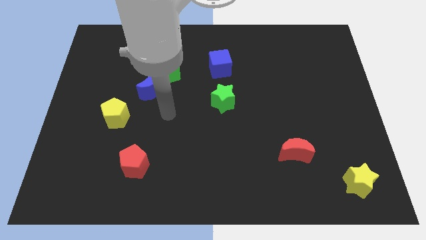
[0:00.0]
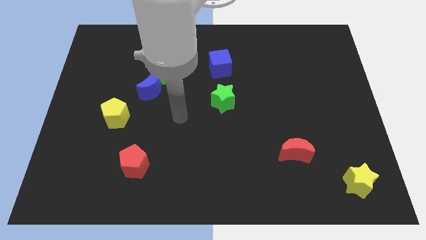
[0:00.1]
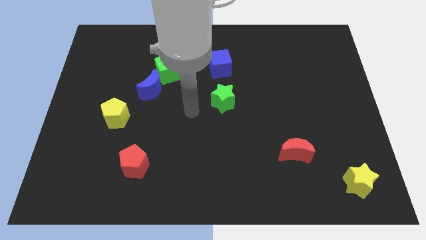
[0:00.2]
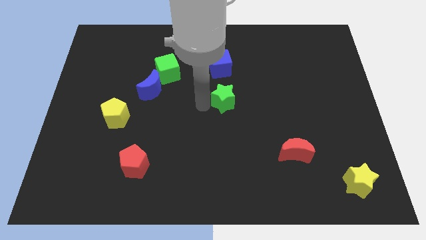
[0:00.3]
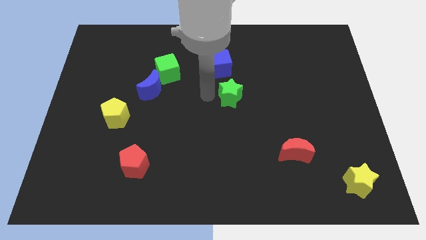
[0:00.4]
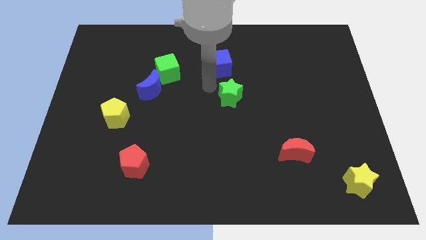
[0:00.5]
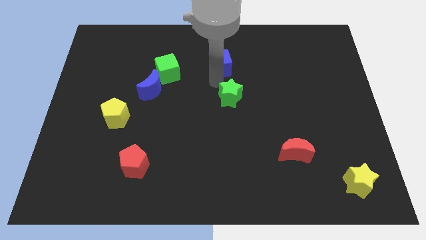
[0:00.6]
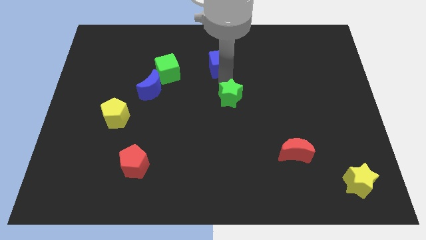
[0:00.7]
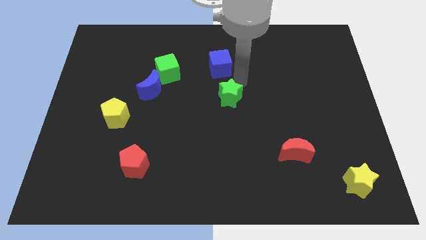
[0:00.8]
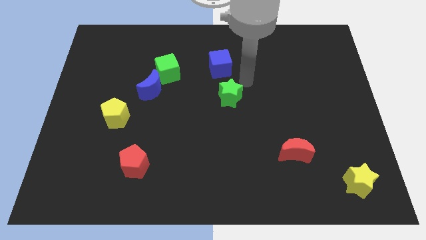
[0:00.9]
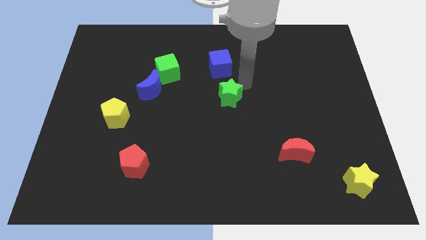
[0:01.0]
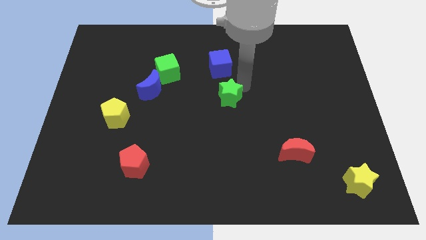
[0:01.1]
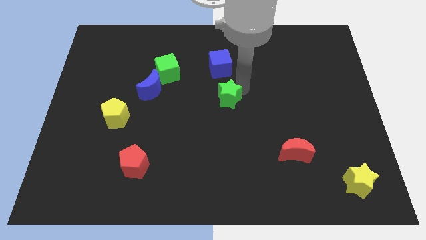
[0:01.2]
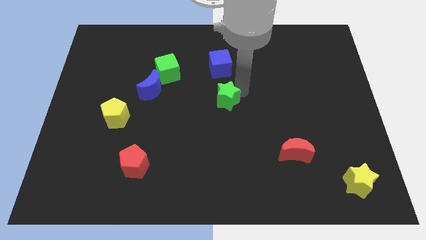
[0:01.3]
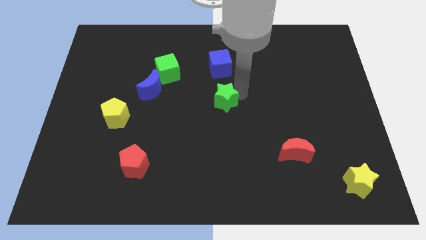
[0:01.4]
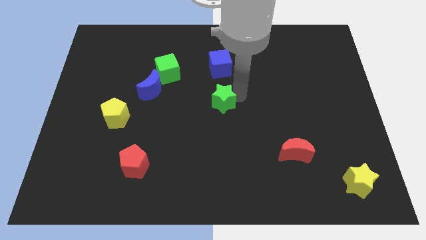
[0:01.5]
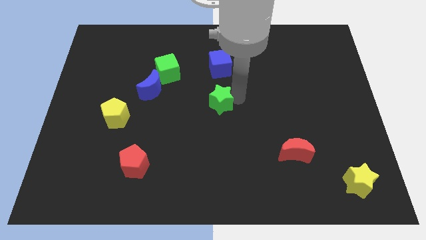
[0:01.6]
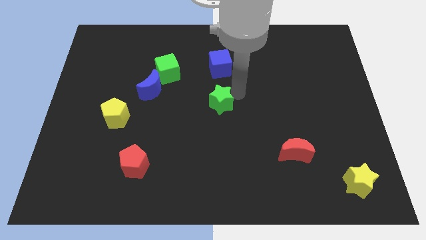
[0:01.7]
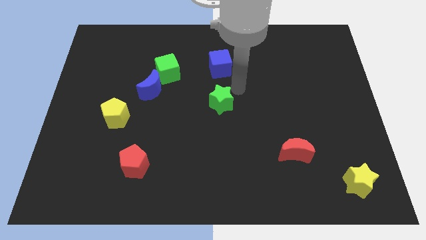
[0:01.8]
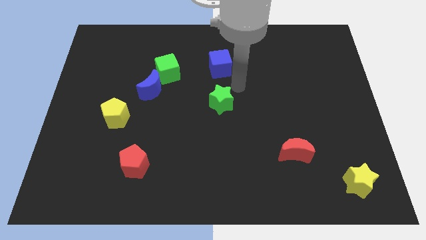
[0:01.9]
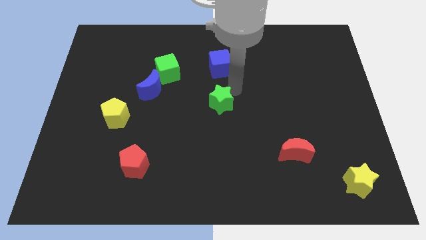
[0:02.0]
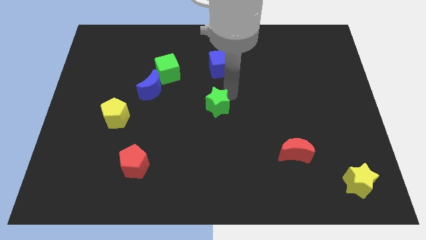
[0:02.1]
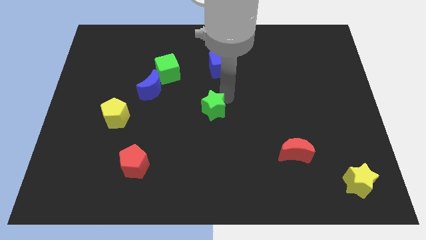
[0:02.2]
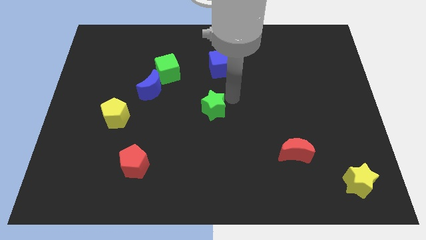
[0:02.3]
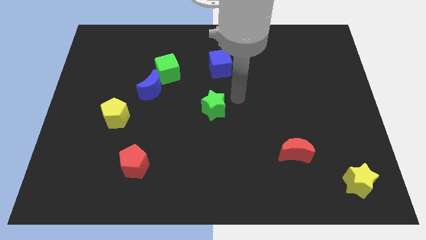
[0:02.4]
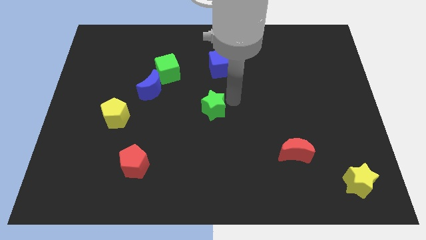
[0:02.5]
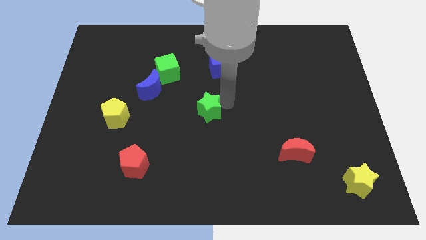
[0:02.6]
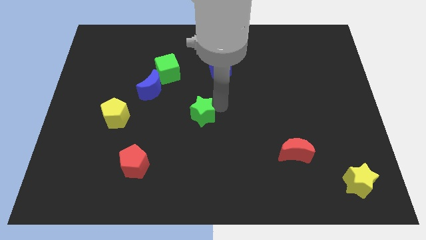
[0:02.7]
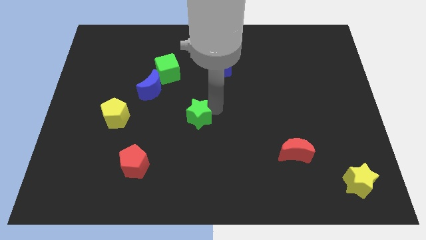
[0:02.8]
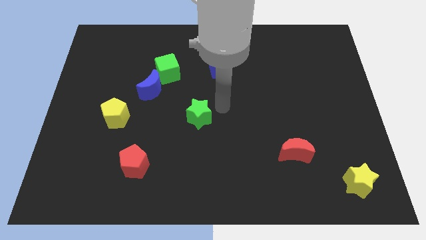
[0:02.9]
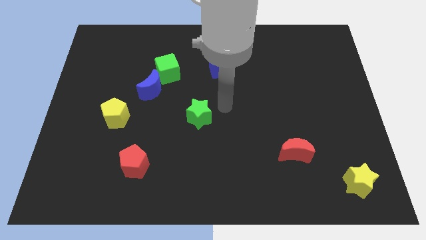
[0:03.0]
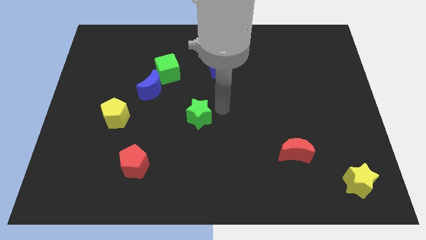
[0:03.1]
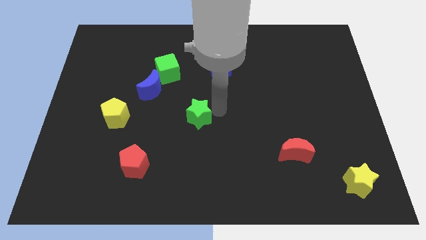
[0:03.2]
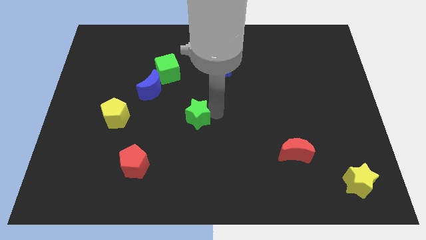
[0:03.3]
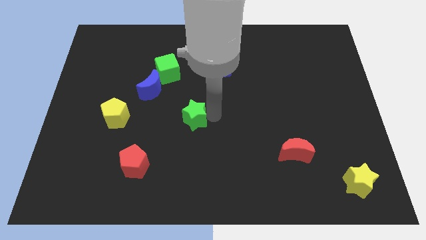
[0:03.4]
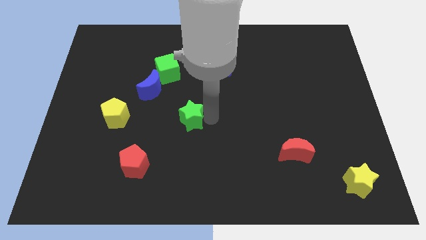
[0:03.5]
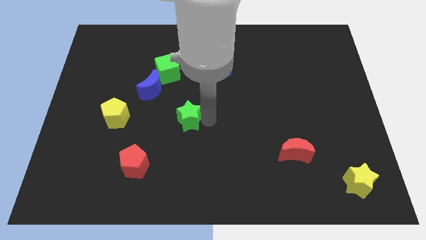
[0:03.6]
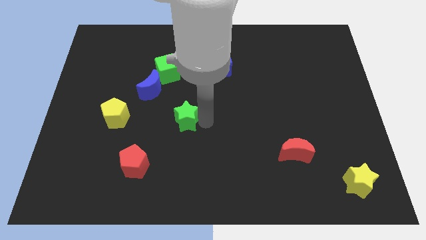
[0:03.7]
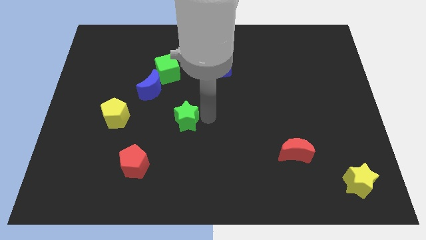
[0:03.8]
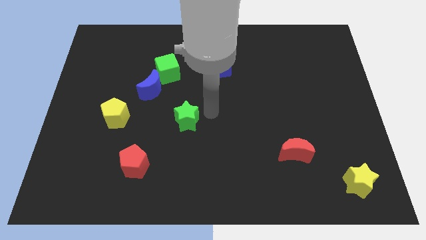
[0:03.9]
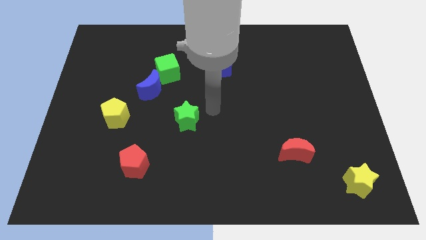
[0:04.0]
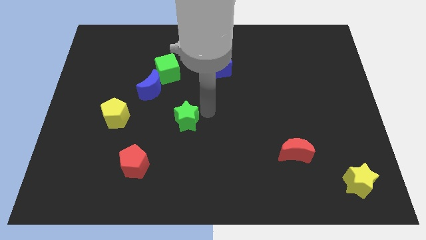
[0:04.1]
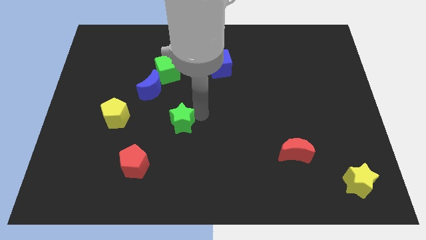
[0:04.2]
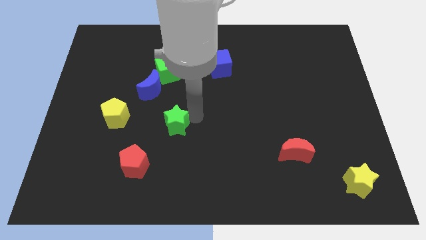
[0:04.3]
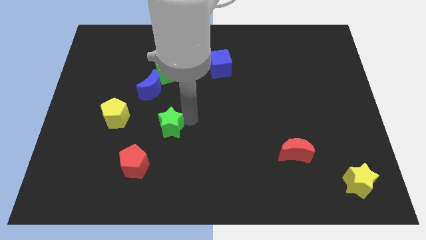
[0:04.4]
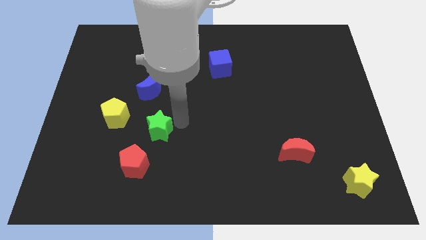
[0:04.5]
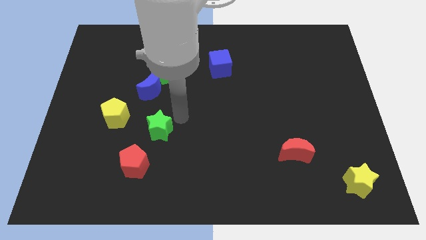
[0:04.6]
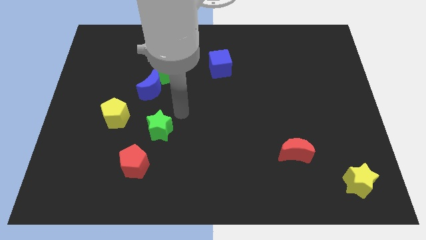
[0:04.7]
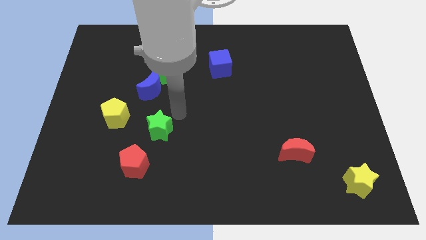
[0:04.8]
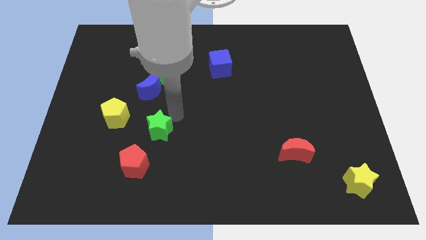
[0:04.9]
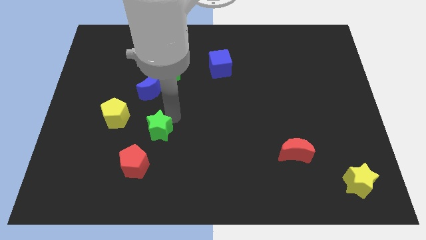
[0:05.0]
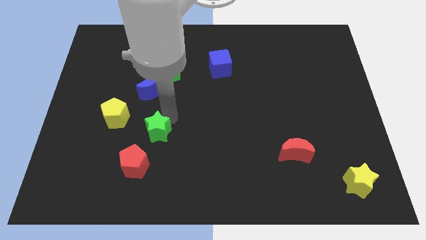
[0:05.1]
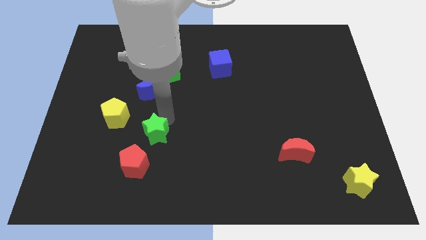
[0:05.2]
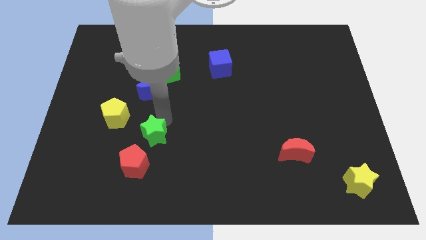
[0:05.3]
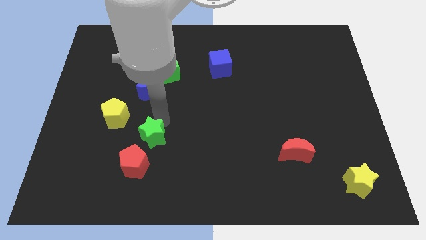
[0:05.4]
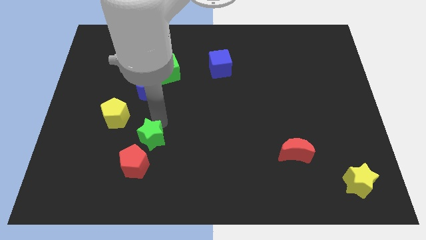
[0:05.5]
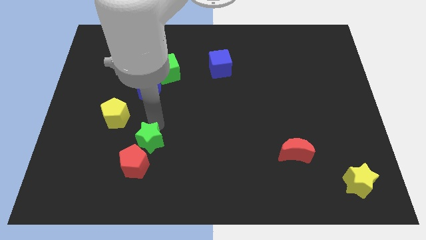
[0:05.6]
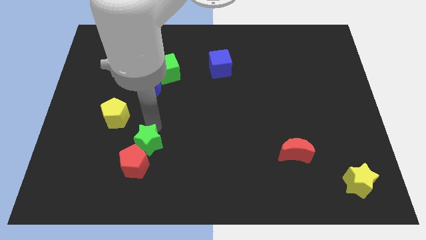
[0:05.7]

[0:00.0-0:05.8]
move the green star next to the red pentagon

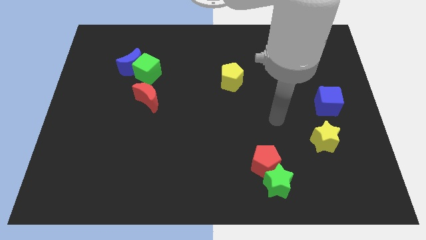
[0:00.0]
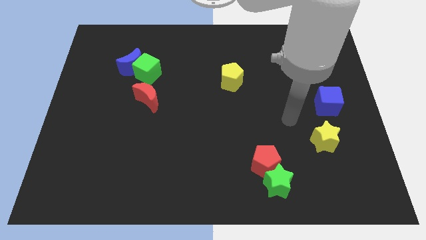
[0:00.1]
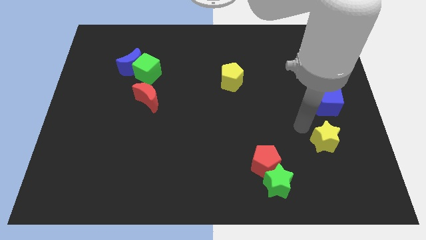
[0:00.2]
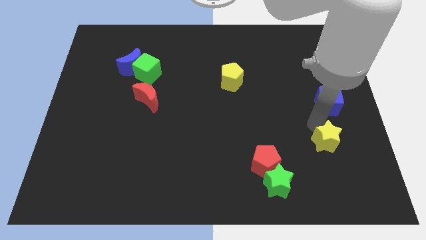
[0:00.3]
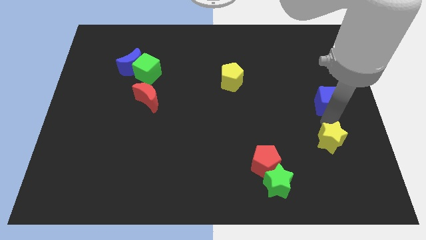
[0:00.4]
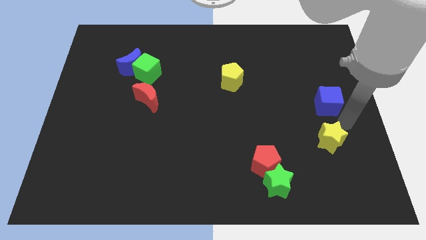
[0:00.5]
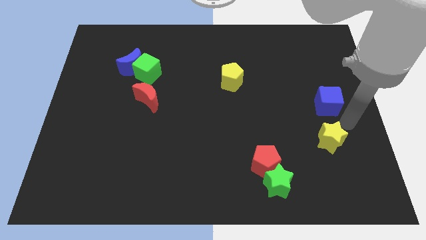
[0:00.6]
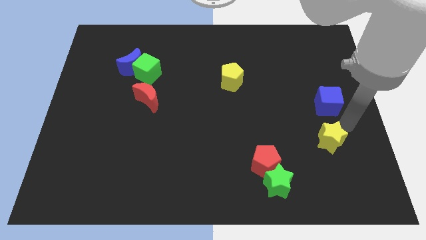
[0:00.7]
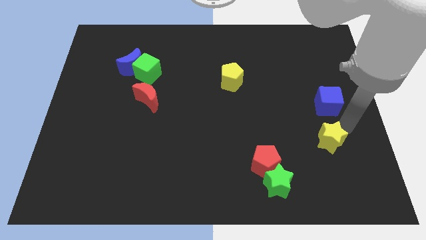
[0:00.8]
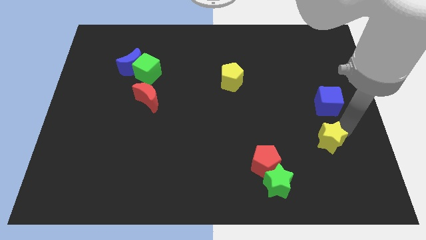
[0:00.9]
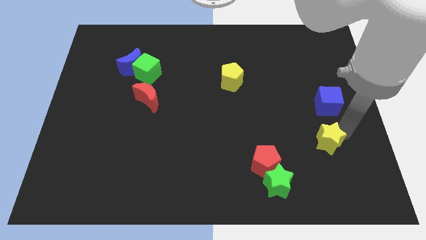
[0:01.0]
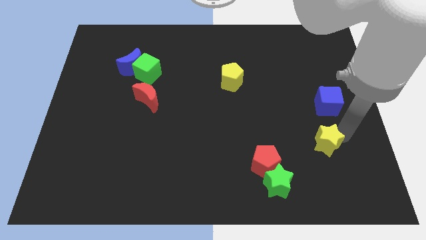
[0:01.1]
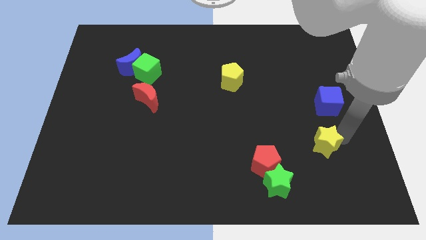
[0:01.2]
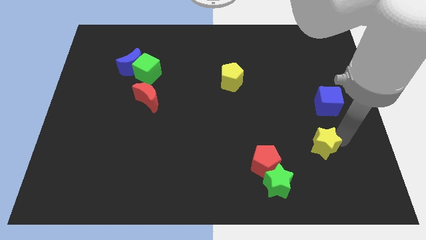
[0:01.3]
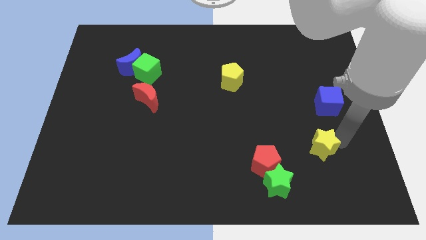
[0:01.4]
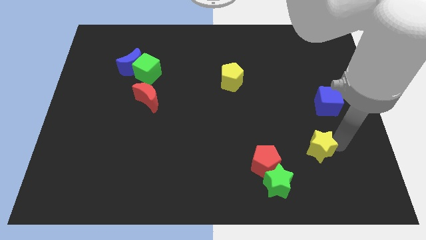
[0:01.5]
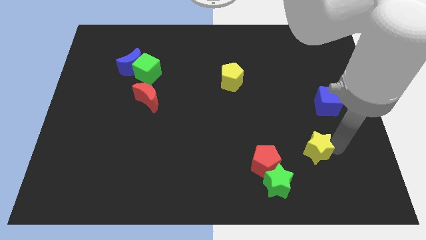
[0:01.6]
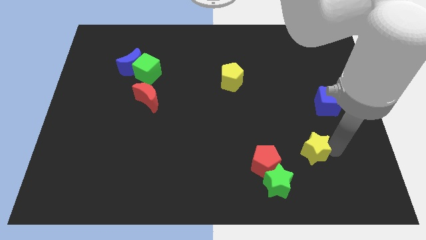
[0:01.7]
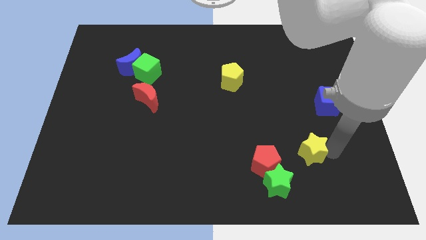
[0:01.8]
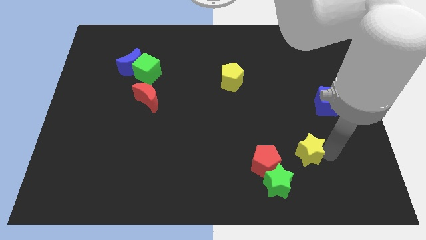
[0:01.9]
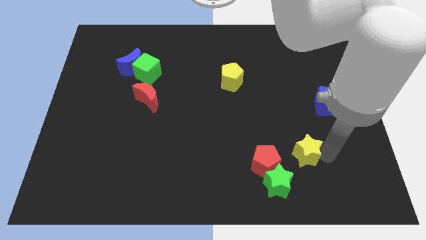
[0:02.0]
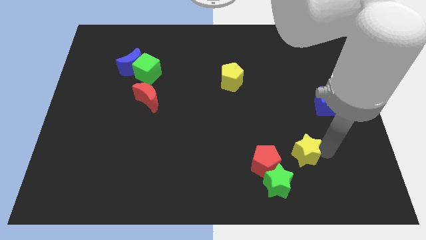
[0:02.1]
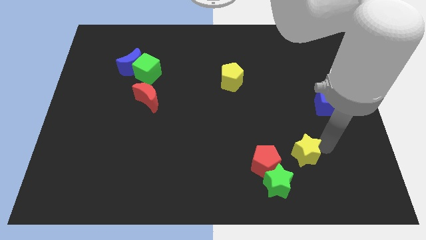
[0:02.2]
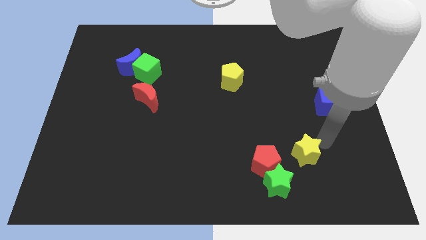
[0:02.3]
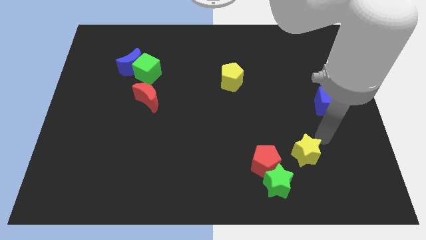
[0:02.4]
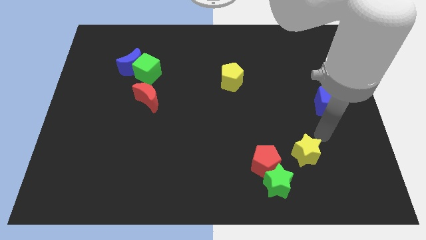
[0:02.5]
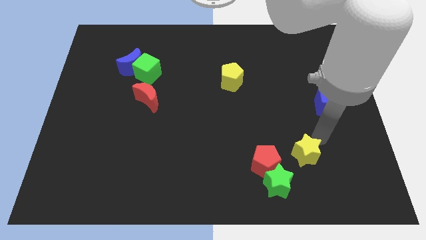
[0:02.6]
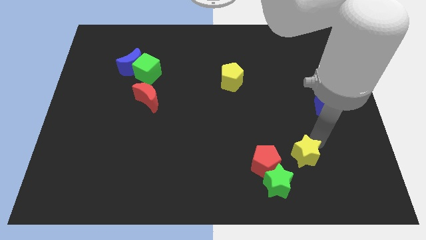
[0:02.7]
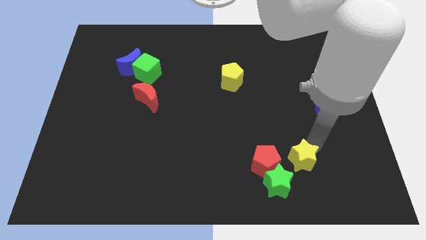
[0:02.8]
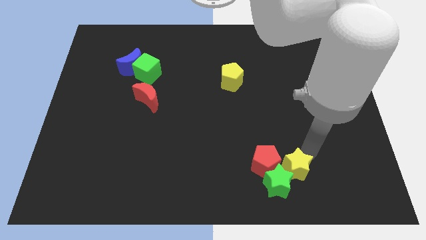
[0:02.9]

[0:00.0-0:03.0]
slide the yellow star next to the green star
